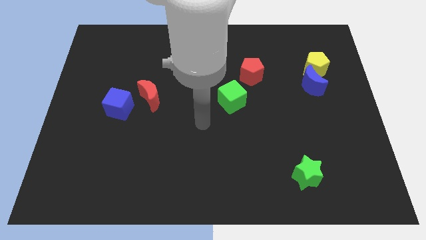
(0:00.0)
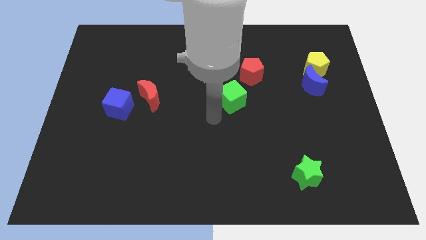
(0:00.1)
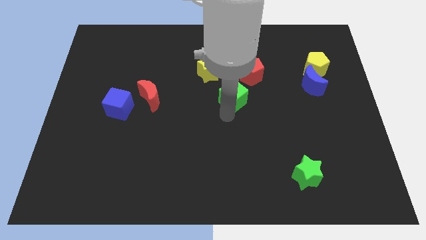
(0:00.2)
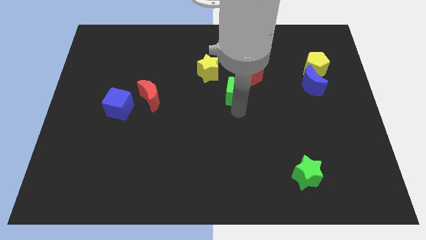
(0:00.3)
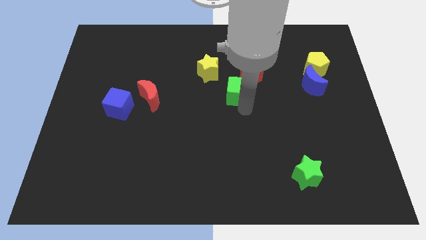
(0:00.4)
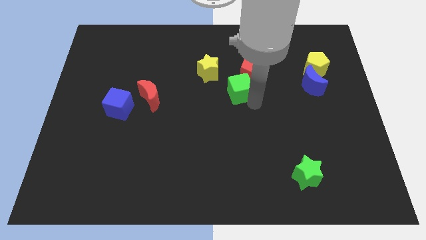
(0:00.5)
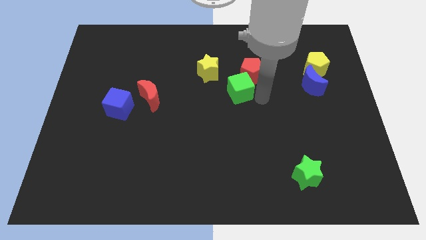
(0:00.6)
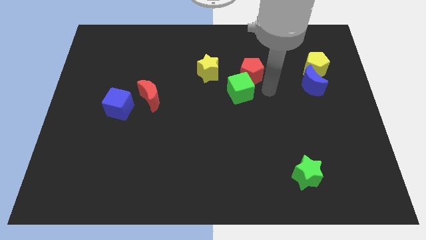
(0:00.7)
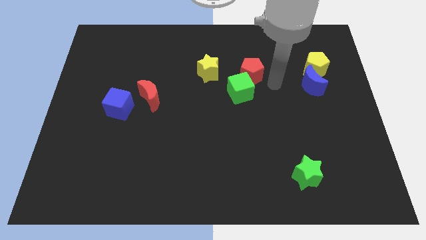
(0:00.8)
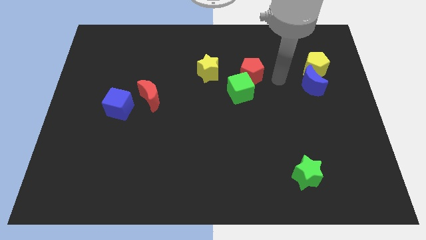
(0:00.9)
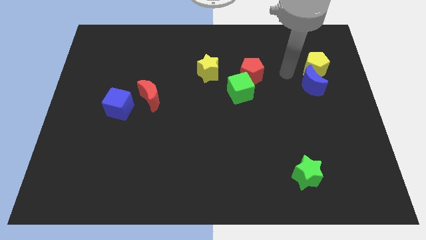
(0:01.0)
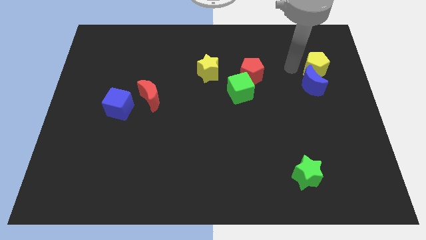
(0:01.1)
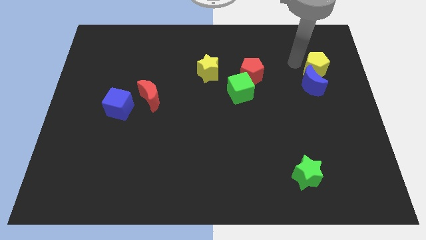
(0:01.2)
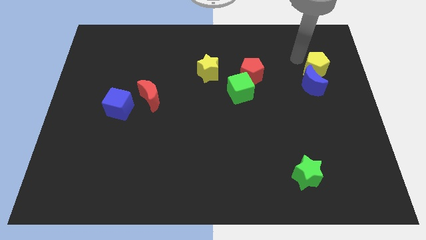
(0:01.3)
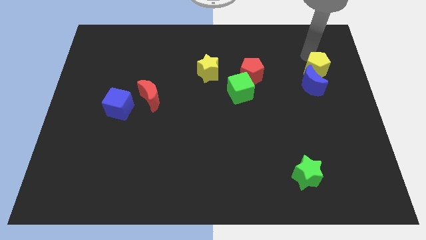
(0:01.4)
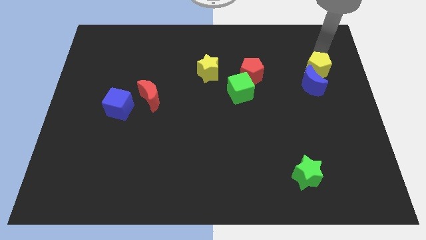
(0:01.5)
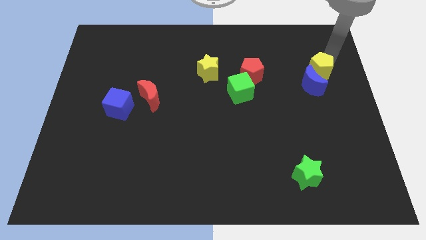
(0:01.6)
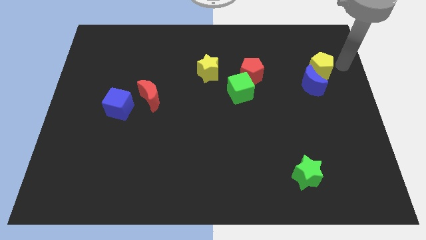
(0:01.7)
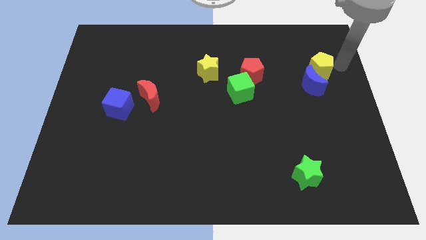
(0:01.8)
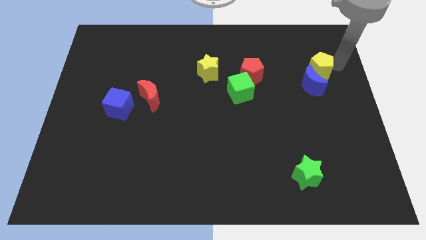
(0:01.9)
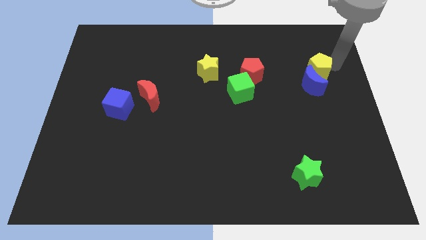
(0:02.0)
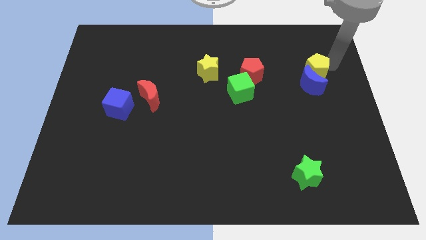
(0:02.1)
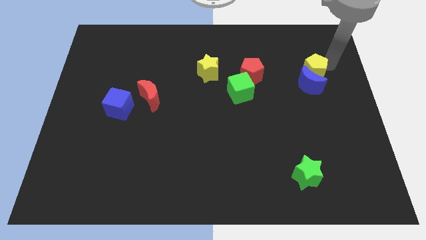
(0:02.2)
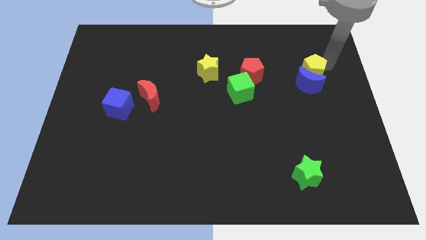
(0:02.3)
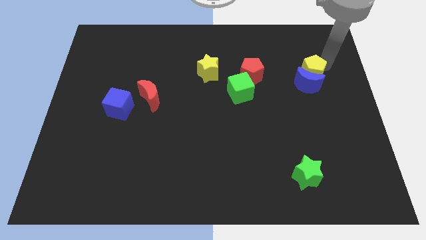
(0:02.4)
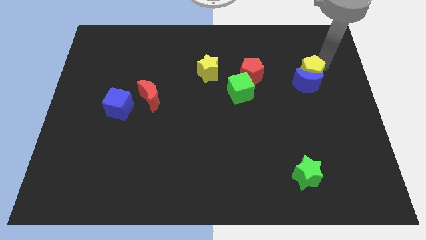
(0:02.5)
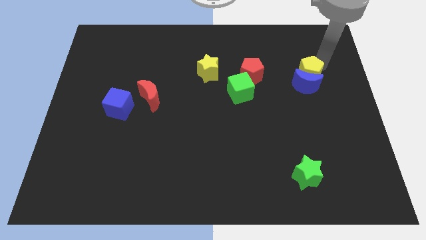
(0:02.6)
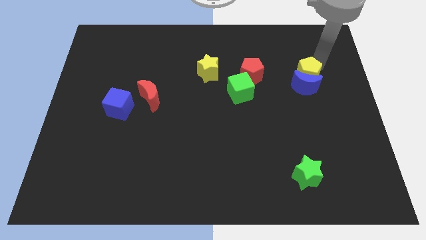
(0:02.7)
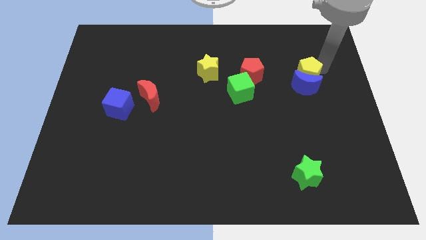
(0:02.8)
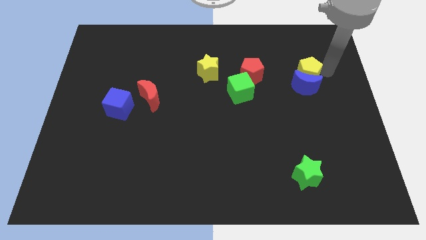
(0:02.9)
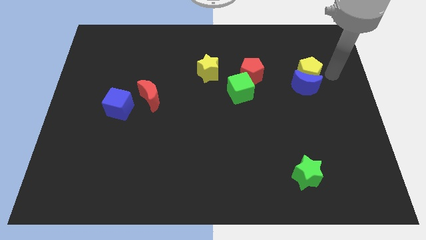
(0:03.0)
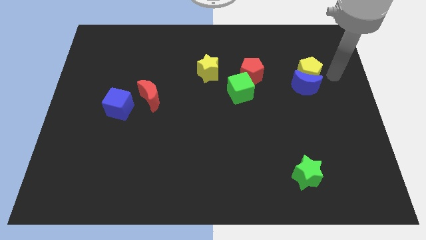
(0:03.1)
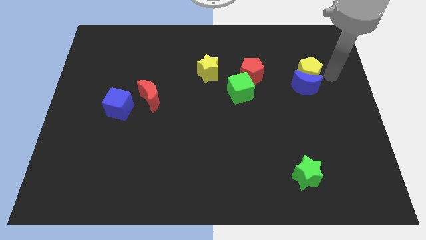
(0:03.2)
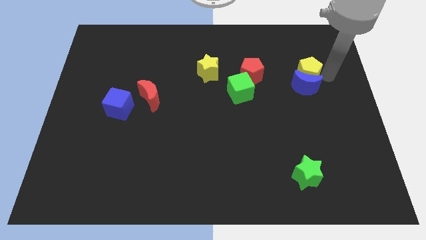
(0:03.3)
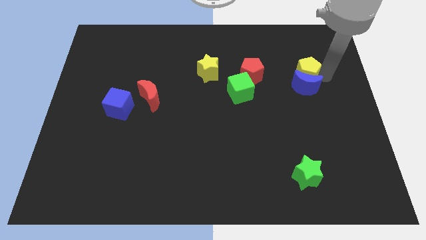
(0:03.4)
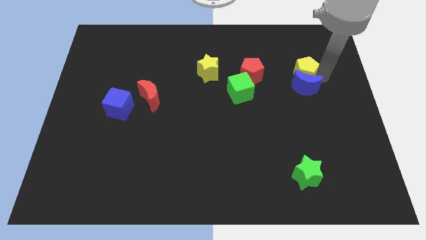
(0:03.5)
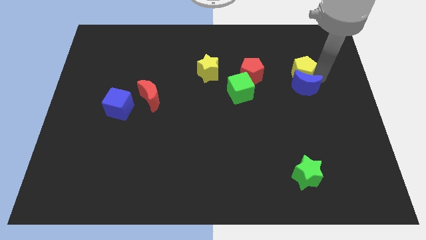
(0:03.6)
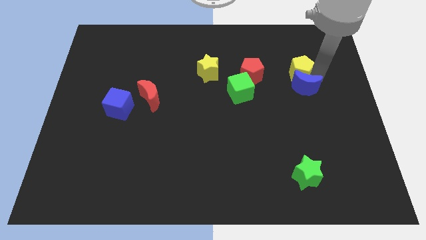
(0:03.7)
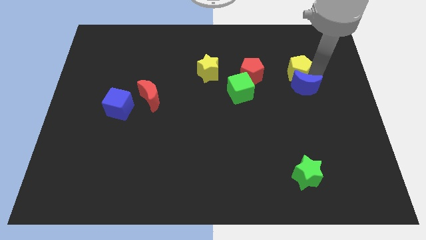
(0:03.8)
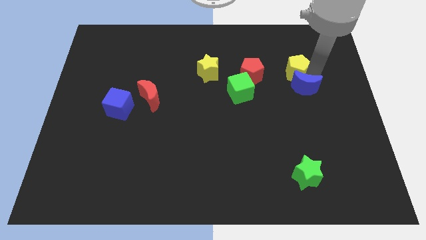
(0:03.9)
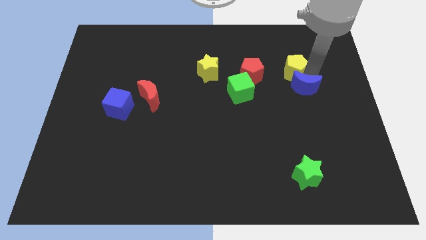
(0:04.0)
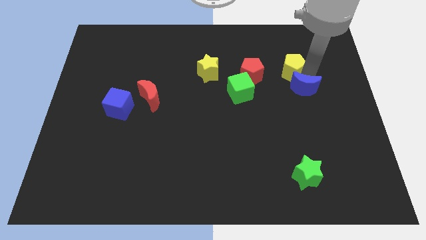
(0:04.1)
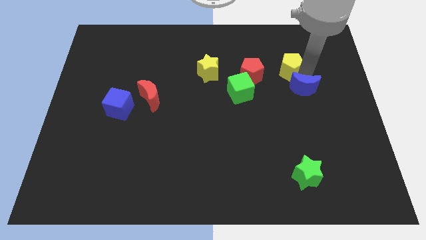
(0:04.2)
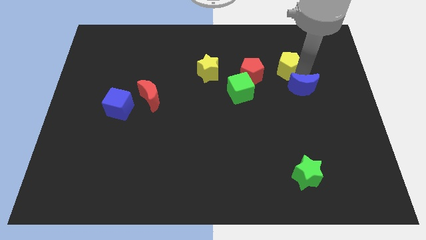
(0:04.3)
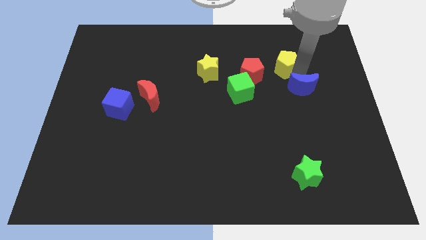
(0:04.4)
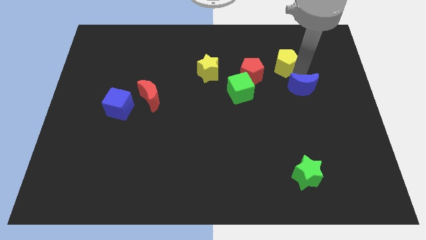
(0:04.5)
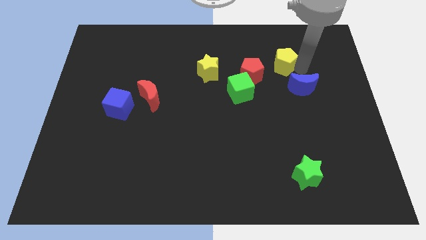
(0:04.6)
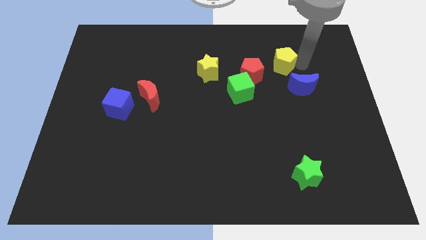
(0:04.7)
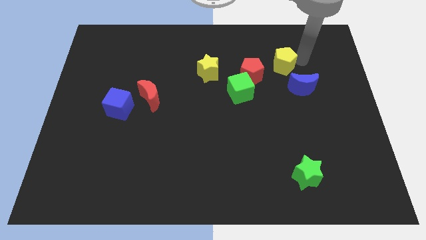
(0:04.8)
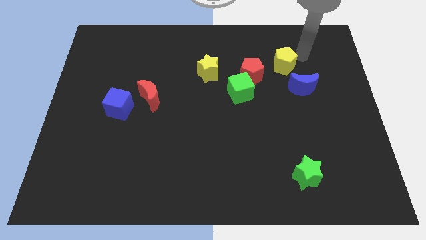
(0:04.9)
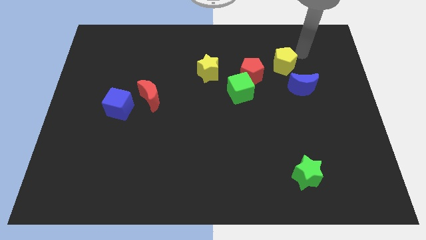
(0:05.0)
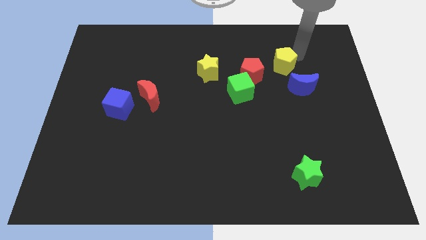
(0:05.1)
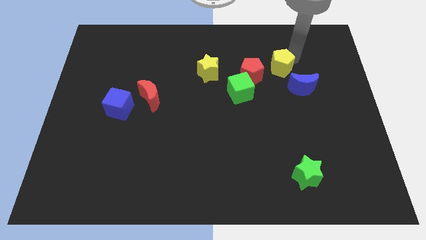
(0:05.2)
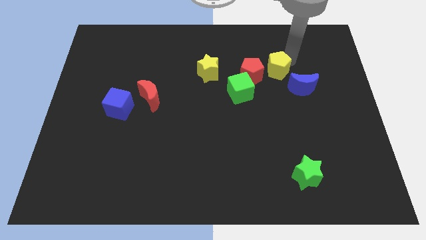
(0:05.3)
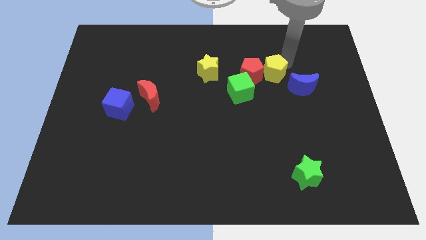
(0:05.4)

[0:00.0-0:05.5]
slide the yellow pentagon close to the red pentagon

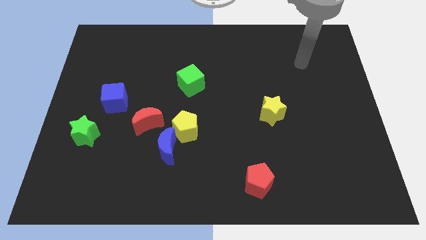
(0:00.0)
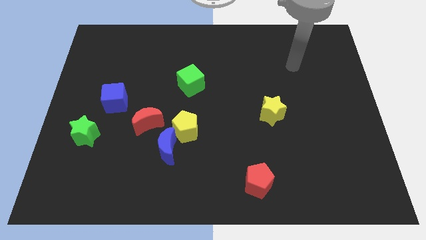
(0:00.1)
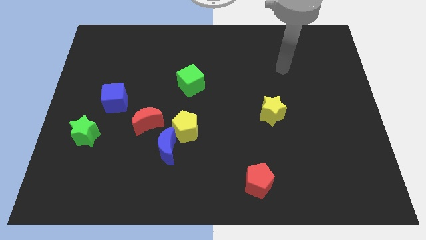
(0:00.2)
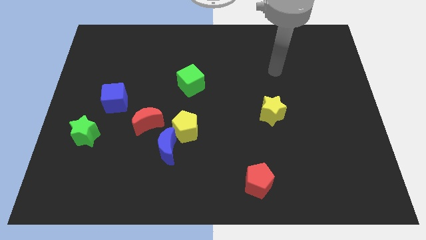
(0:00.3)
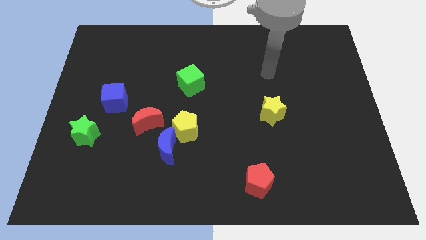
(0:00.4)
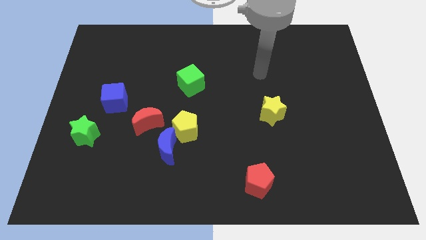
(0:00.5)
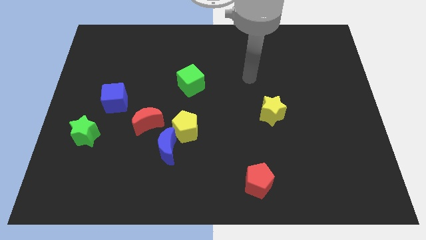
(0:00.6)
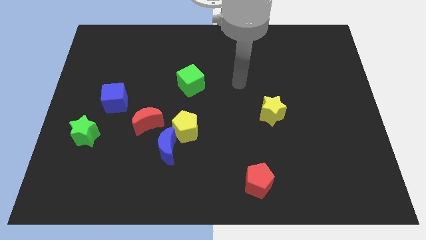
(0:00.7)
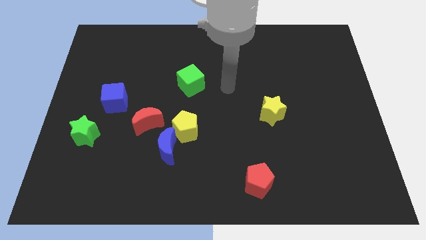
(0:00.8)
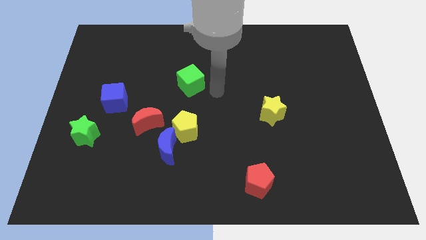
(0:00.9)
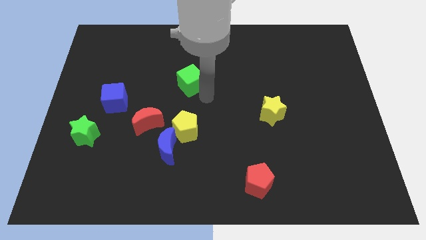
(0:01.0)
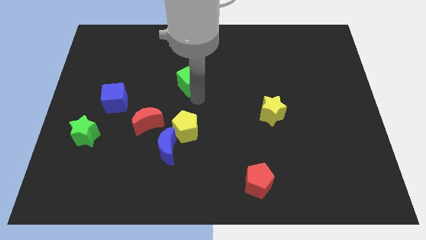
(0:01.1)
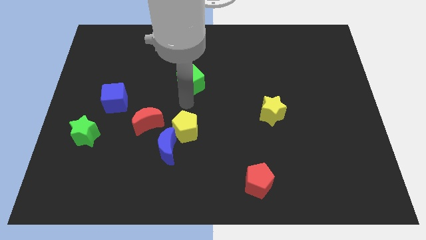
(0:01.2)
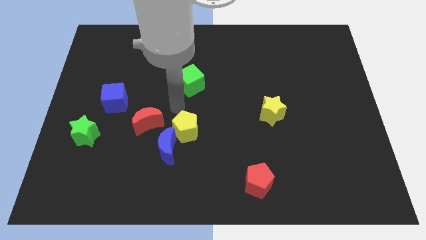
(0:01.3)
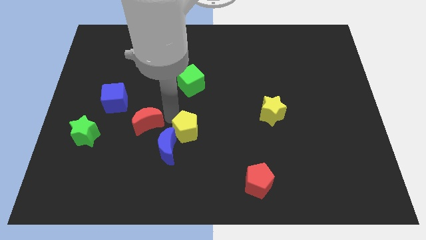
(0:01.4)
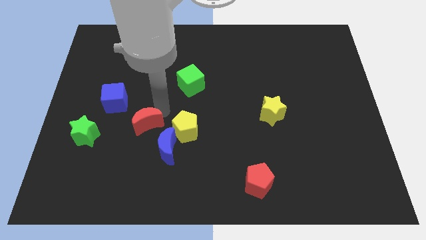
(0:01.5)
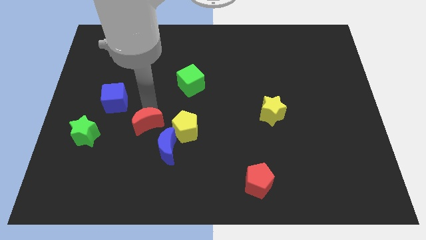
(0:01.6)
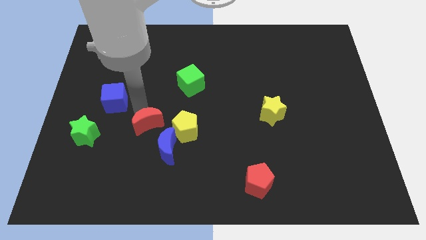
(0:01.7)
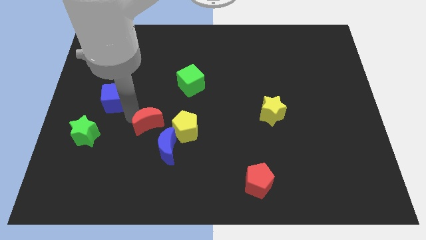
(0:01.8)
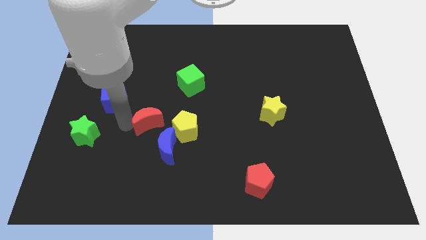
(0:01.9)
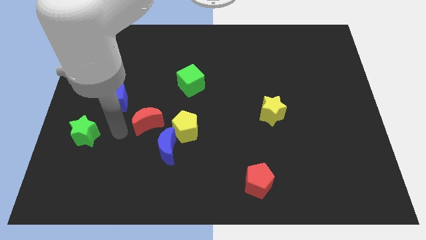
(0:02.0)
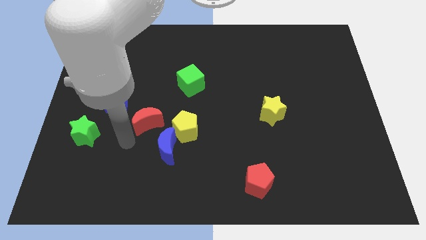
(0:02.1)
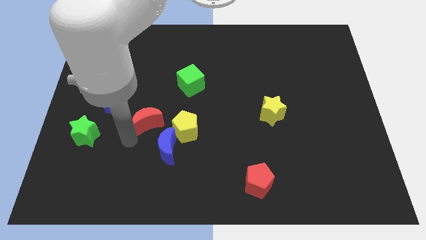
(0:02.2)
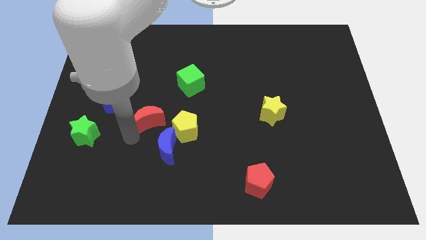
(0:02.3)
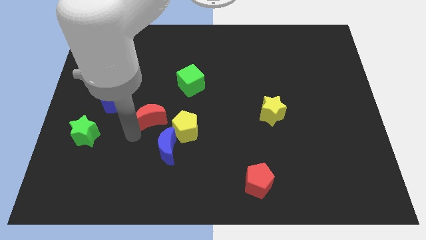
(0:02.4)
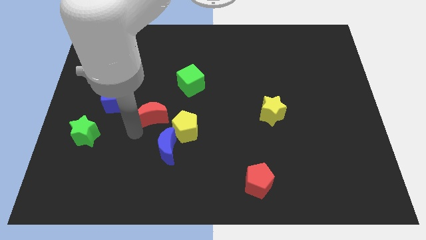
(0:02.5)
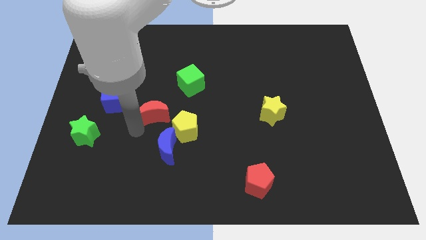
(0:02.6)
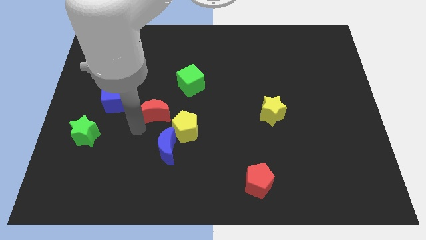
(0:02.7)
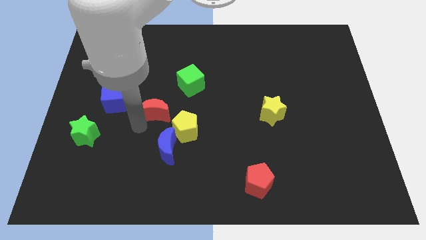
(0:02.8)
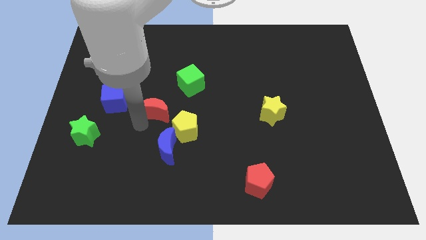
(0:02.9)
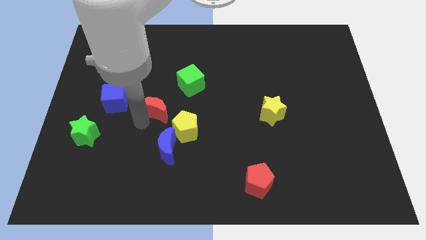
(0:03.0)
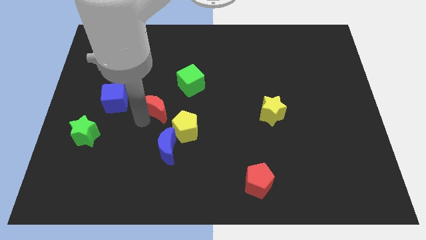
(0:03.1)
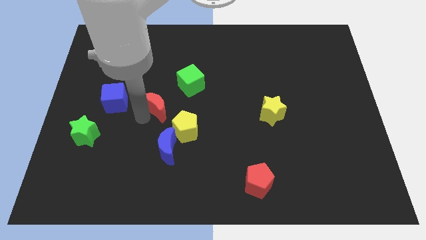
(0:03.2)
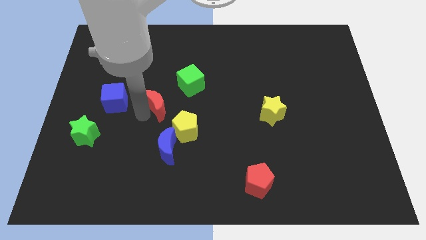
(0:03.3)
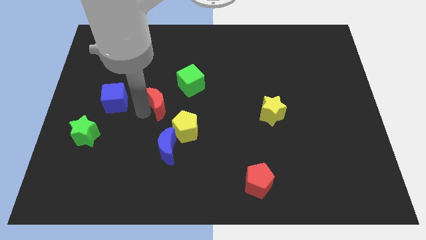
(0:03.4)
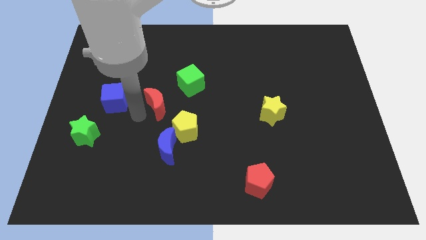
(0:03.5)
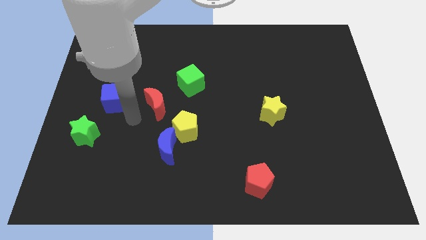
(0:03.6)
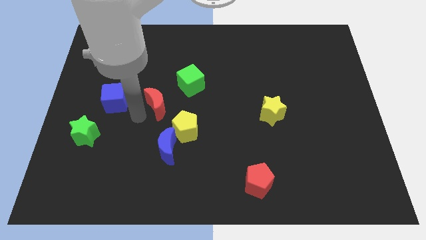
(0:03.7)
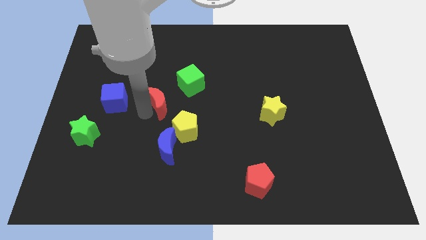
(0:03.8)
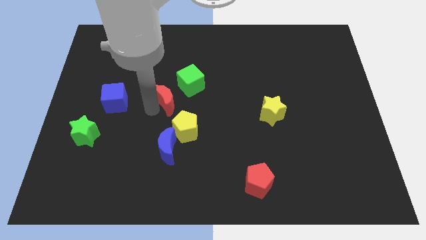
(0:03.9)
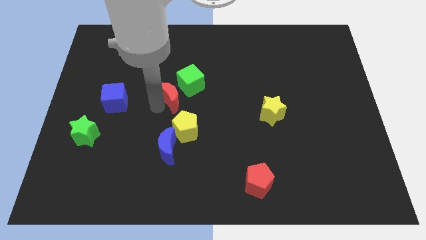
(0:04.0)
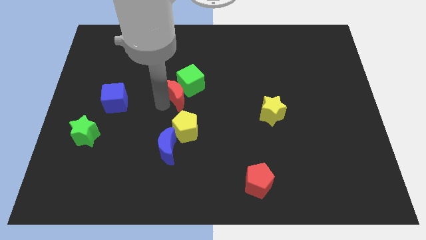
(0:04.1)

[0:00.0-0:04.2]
put the red moon to the green cube
